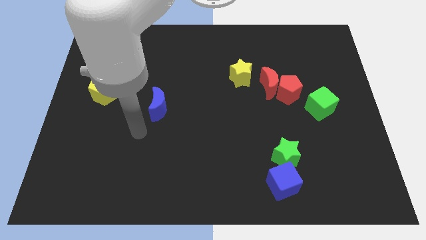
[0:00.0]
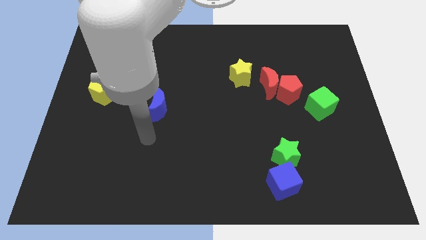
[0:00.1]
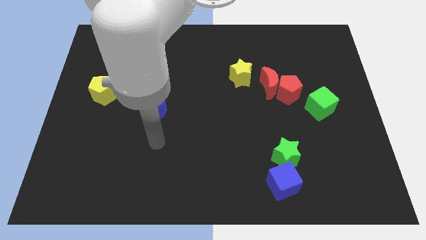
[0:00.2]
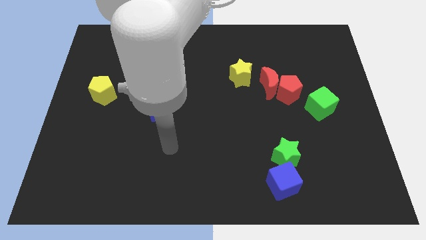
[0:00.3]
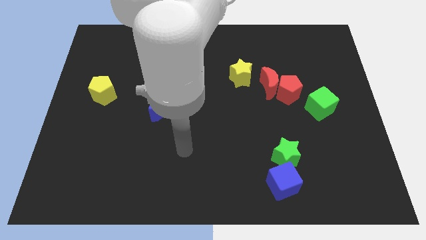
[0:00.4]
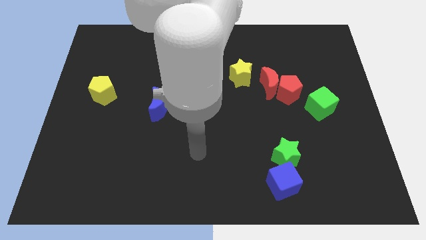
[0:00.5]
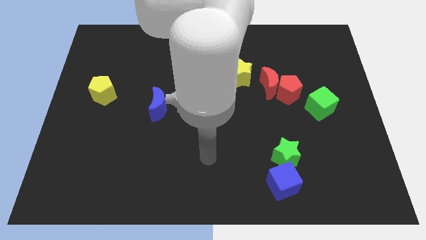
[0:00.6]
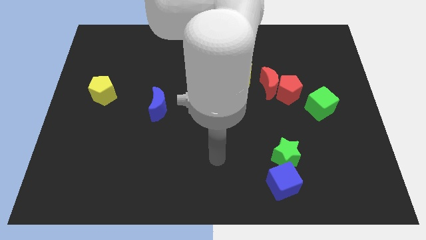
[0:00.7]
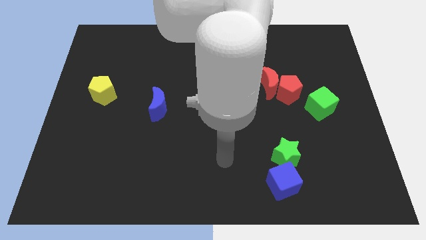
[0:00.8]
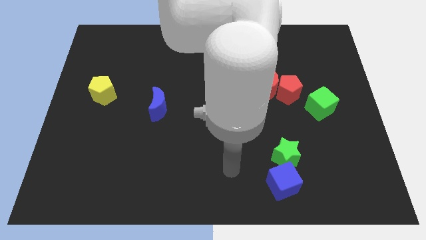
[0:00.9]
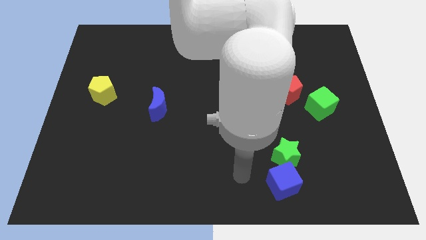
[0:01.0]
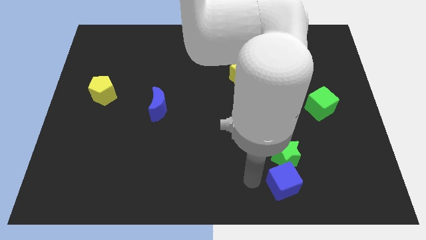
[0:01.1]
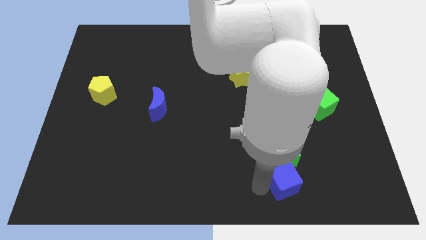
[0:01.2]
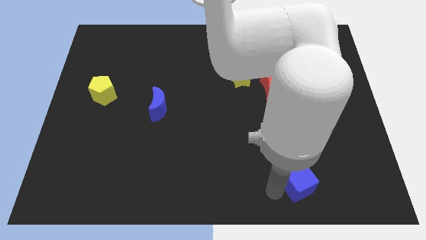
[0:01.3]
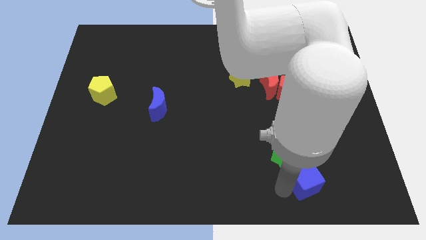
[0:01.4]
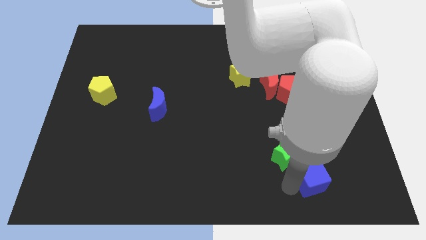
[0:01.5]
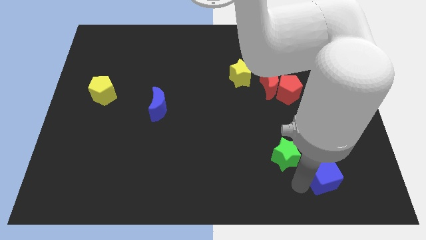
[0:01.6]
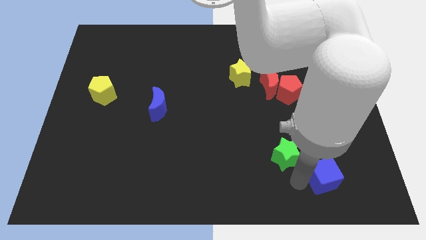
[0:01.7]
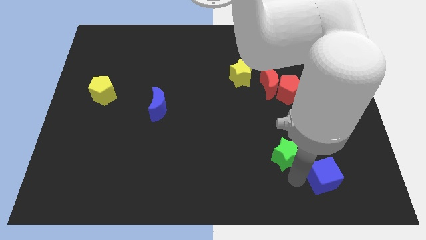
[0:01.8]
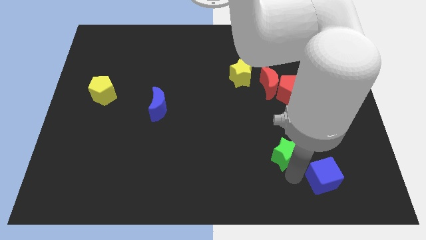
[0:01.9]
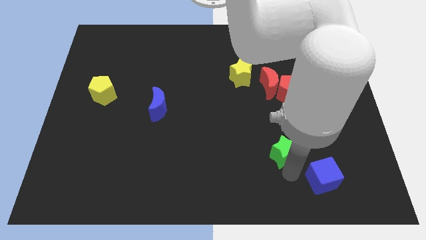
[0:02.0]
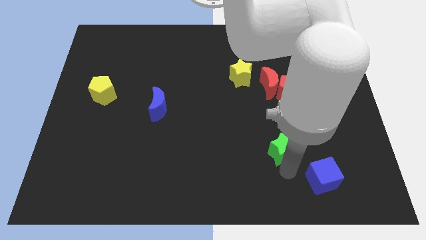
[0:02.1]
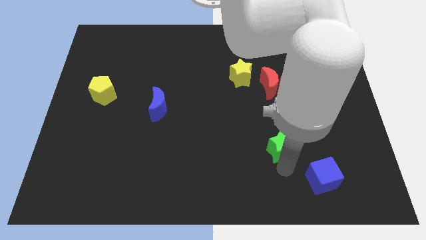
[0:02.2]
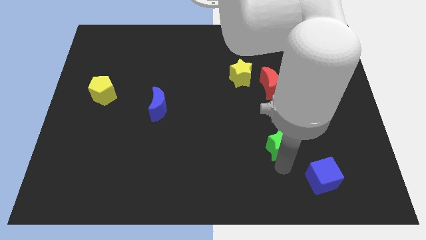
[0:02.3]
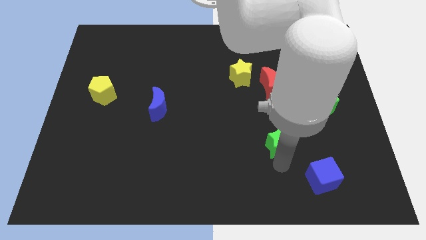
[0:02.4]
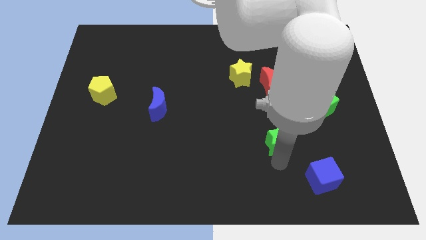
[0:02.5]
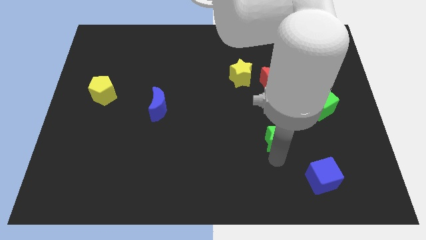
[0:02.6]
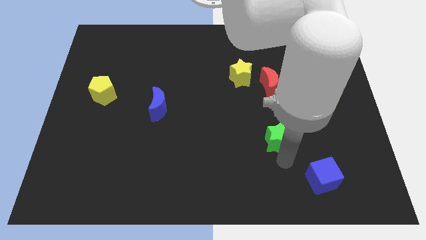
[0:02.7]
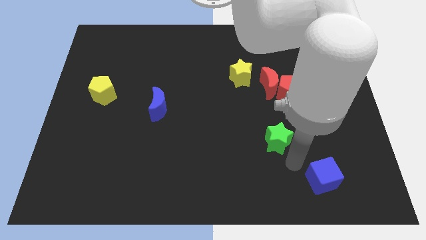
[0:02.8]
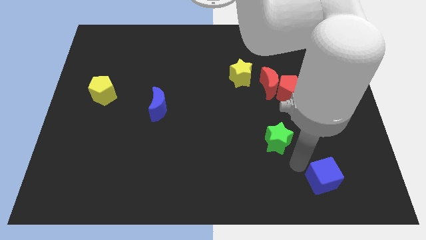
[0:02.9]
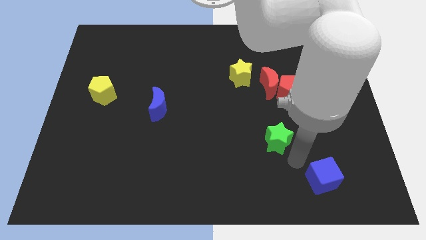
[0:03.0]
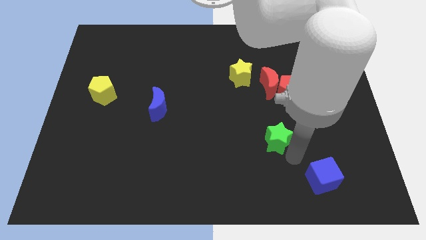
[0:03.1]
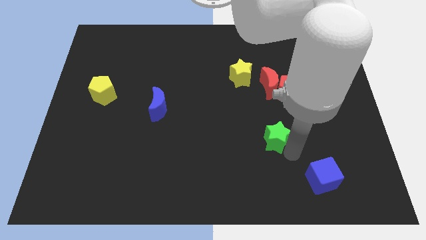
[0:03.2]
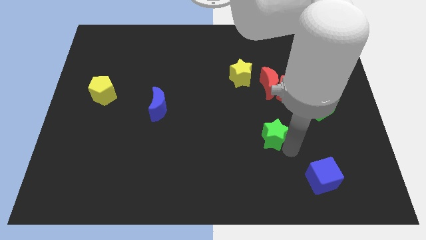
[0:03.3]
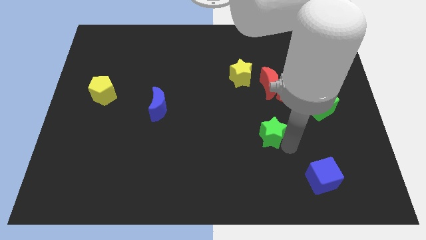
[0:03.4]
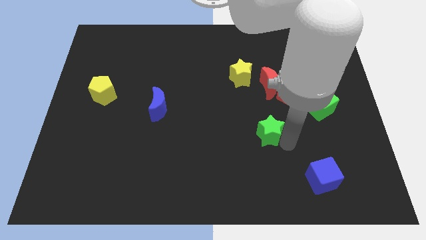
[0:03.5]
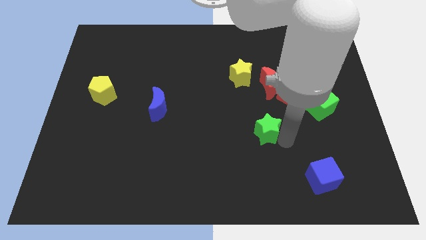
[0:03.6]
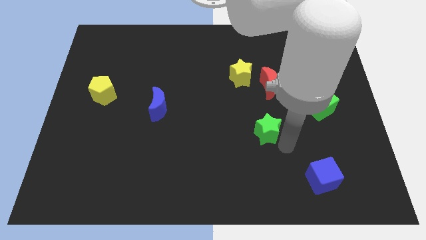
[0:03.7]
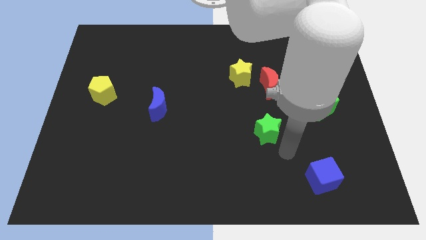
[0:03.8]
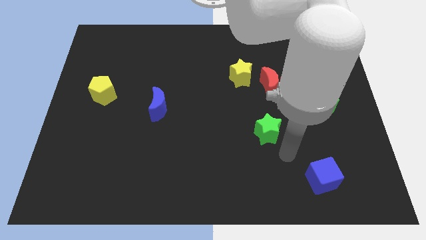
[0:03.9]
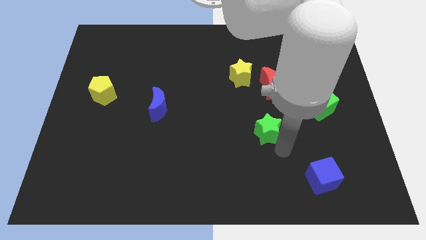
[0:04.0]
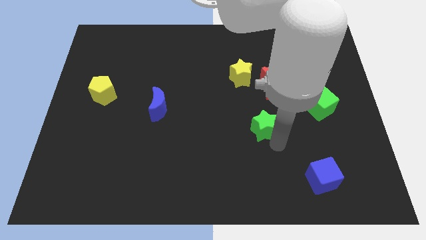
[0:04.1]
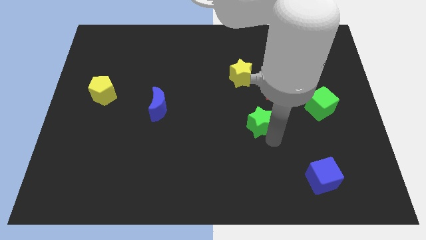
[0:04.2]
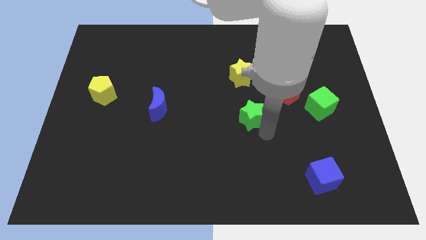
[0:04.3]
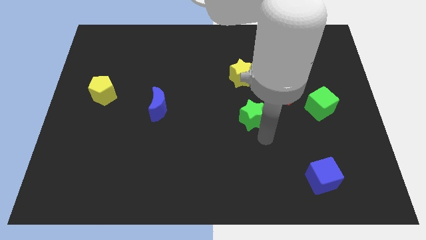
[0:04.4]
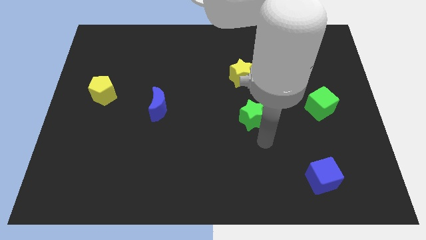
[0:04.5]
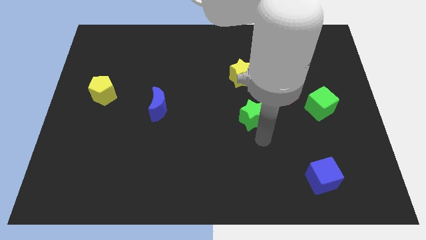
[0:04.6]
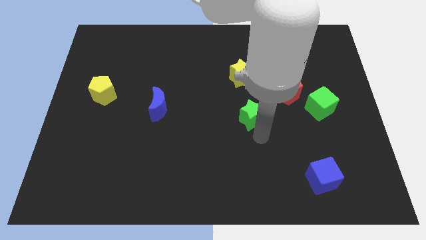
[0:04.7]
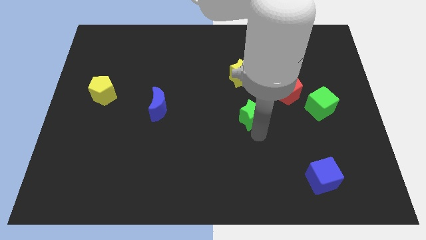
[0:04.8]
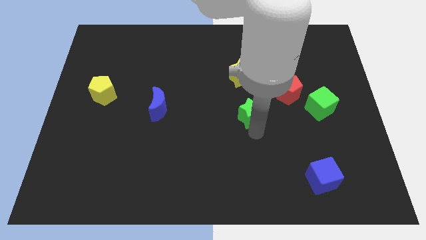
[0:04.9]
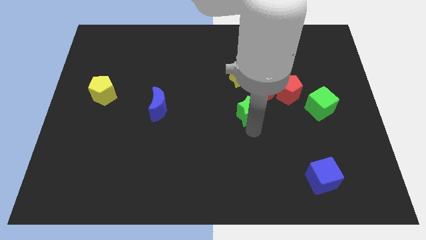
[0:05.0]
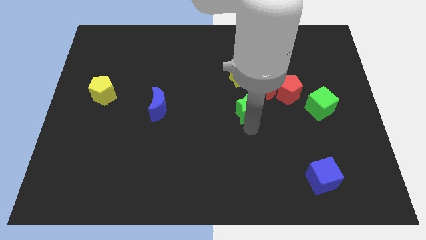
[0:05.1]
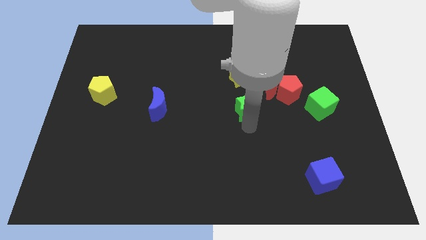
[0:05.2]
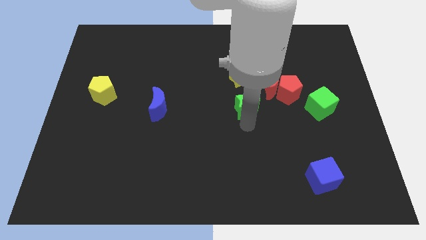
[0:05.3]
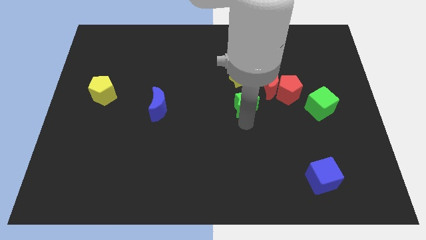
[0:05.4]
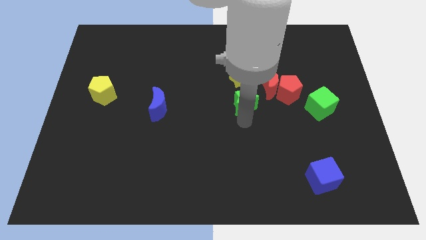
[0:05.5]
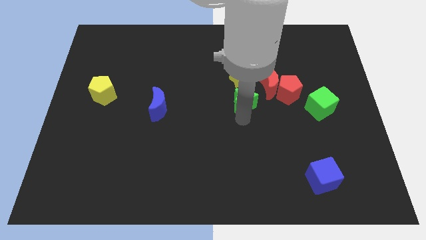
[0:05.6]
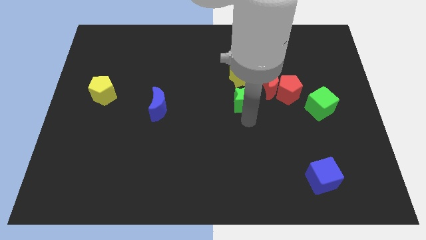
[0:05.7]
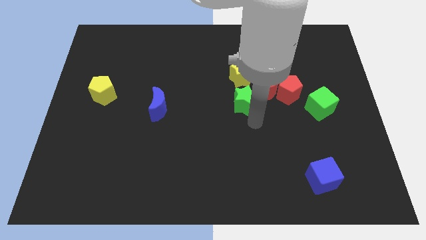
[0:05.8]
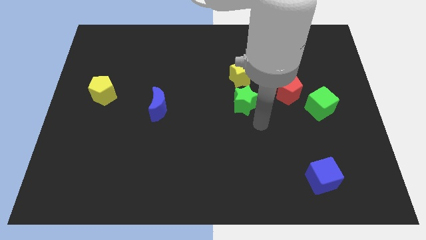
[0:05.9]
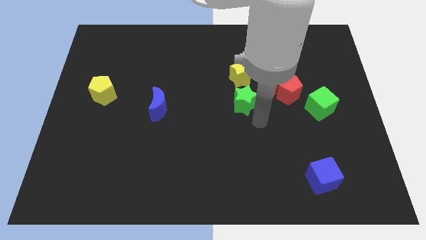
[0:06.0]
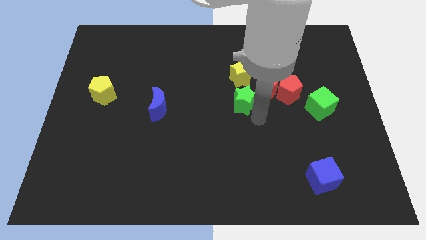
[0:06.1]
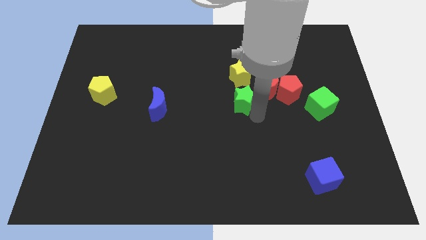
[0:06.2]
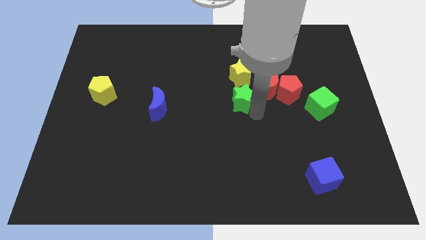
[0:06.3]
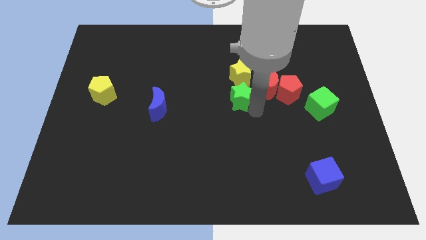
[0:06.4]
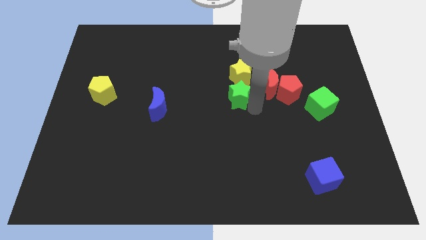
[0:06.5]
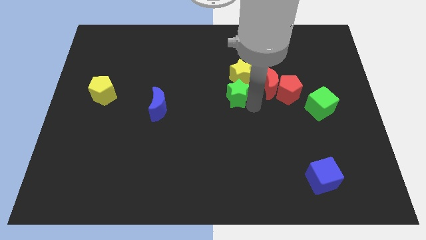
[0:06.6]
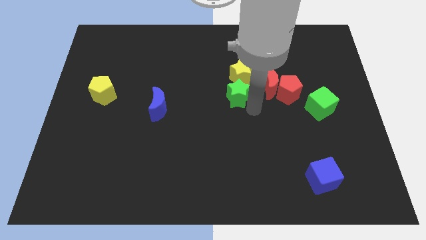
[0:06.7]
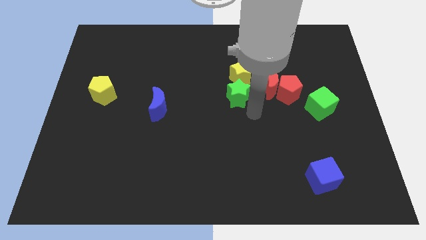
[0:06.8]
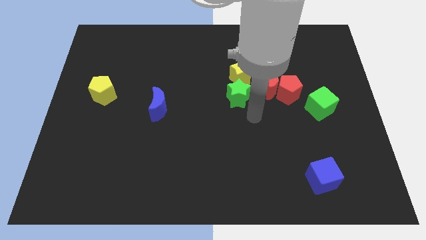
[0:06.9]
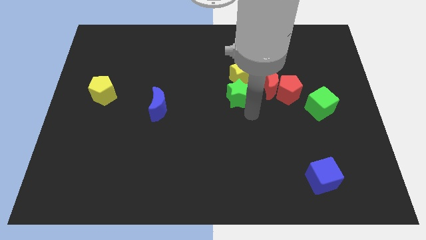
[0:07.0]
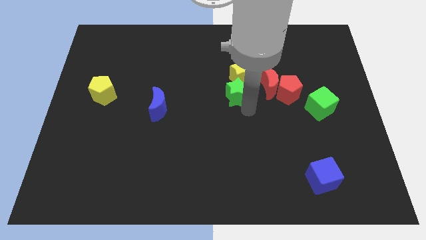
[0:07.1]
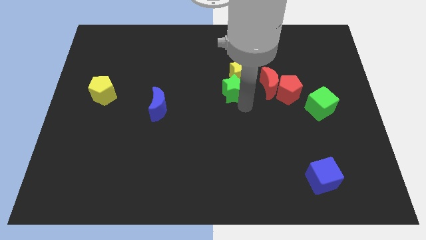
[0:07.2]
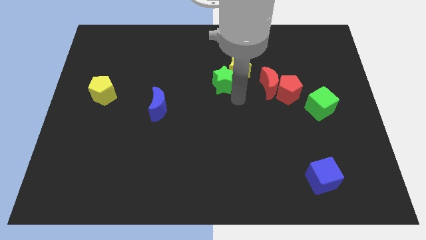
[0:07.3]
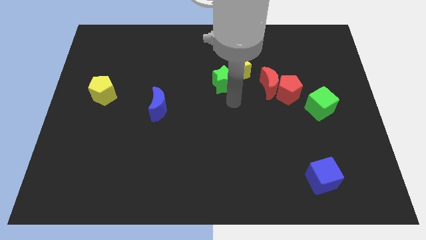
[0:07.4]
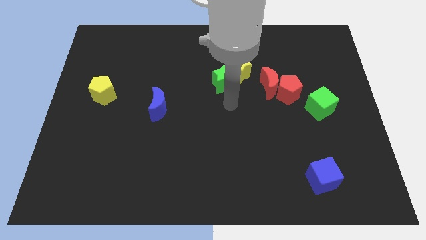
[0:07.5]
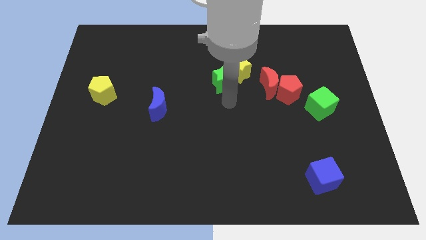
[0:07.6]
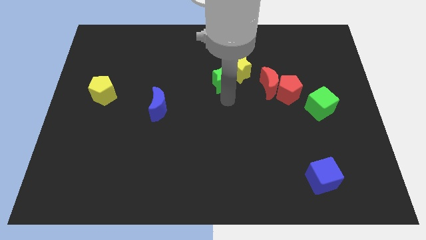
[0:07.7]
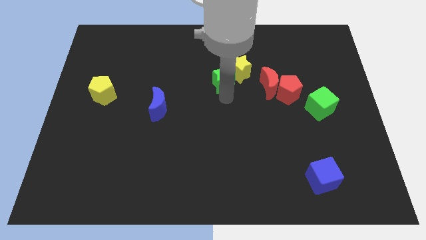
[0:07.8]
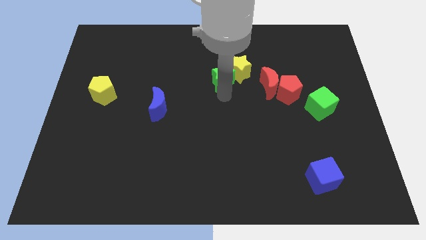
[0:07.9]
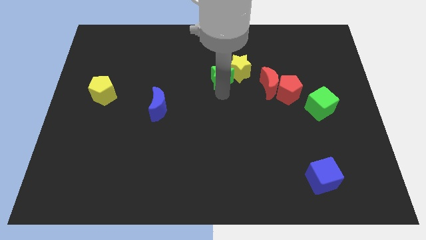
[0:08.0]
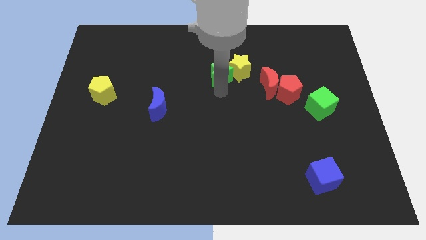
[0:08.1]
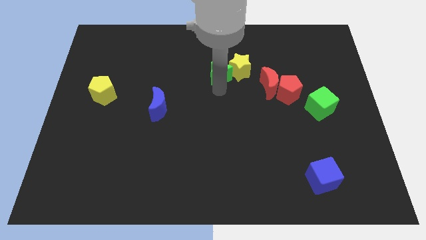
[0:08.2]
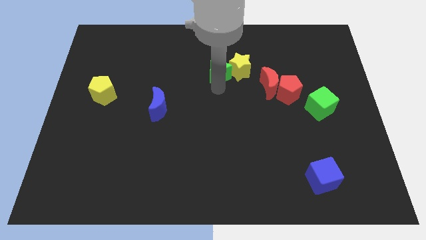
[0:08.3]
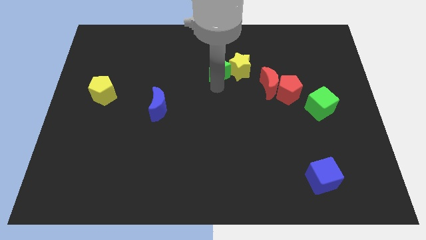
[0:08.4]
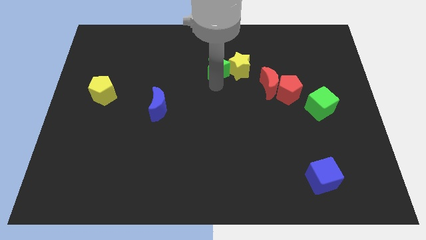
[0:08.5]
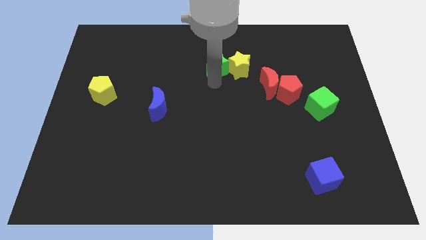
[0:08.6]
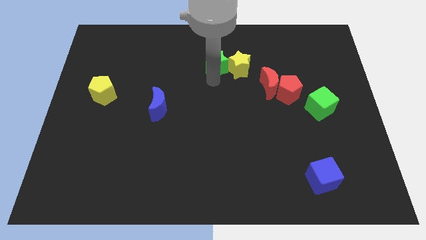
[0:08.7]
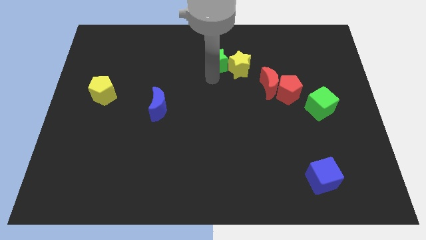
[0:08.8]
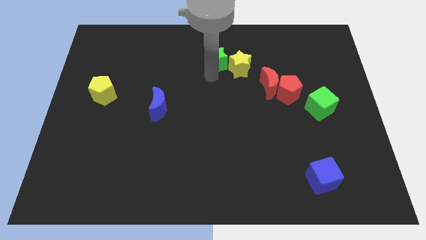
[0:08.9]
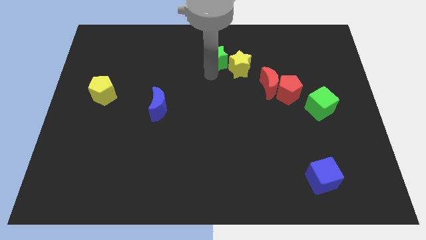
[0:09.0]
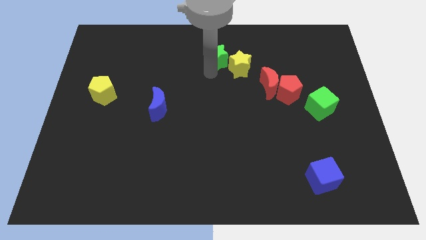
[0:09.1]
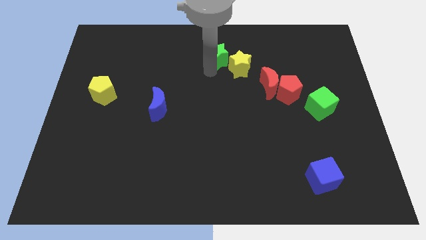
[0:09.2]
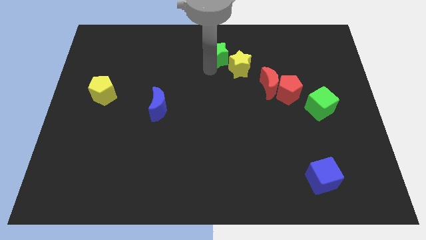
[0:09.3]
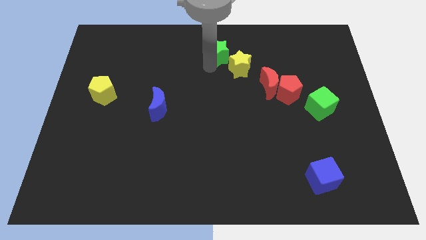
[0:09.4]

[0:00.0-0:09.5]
move the green star to the top side
